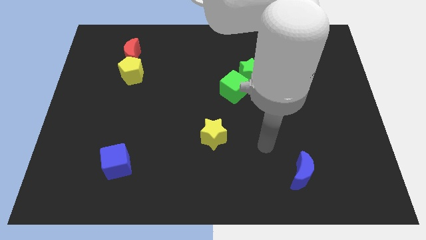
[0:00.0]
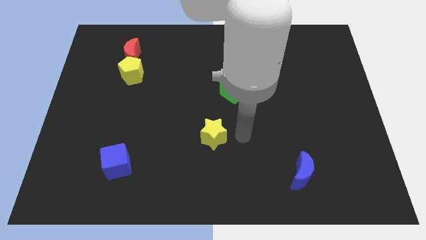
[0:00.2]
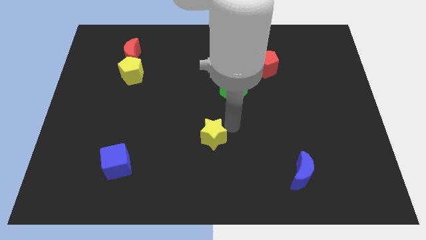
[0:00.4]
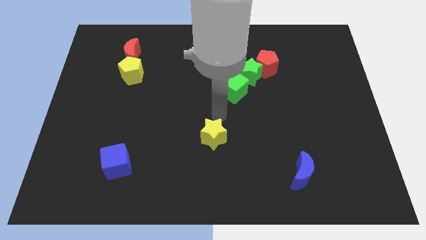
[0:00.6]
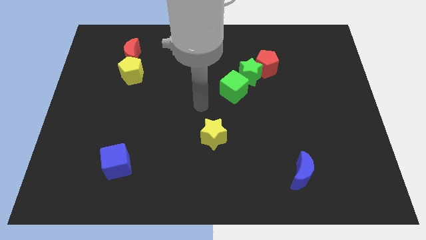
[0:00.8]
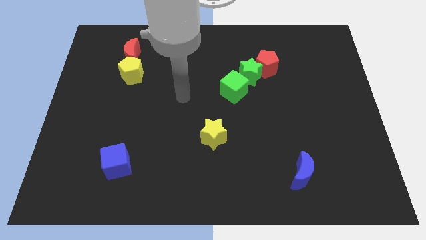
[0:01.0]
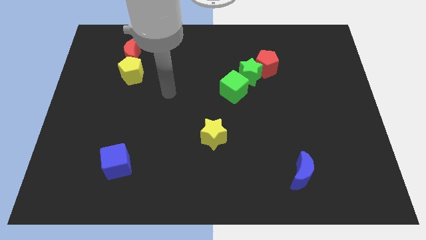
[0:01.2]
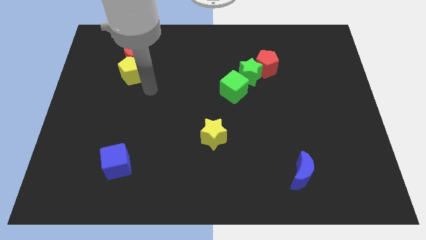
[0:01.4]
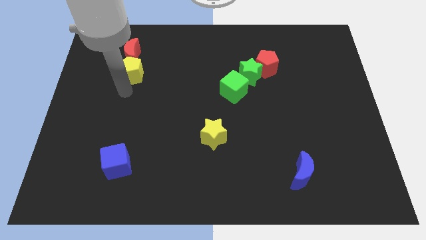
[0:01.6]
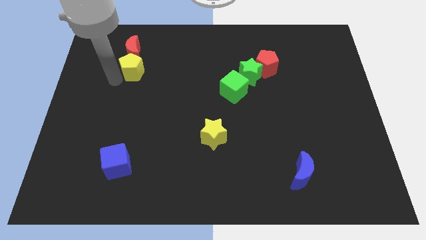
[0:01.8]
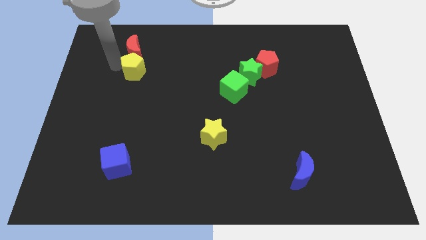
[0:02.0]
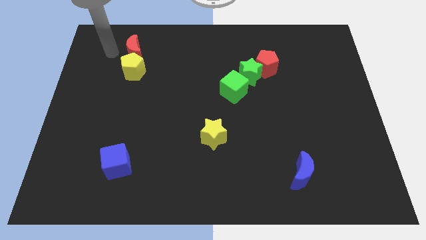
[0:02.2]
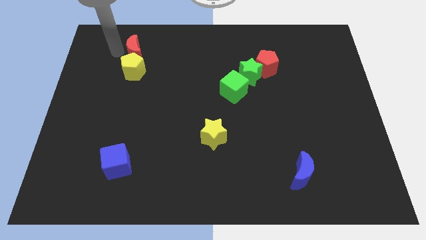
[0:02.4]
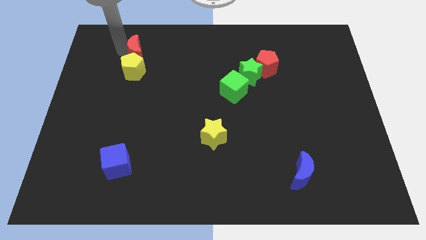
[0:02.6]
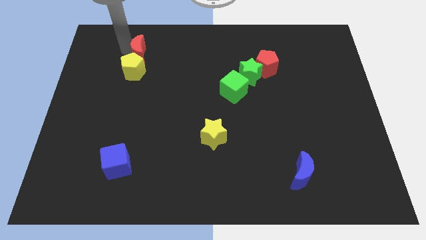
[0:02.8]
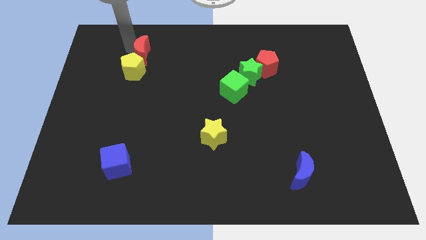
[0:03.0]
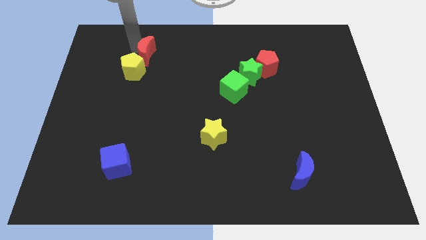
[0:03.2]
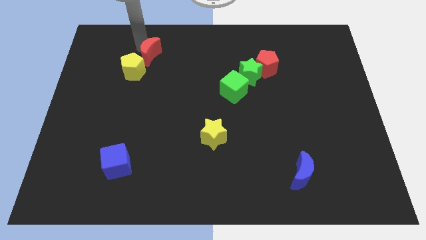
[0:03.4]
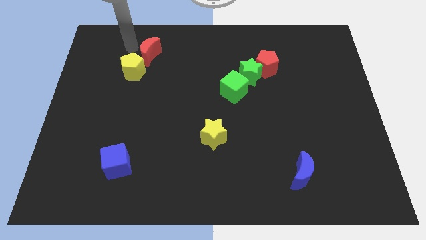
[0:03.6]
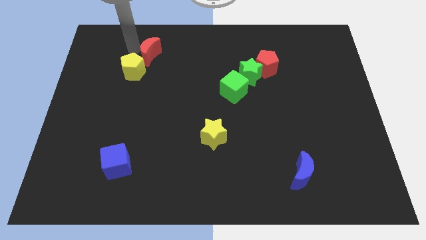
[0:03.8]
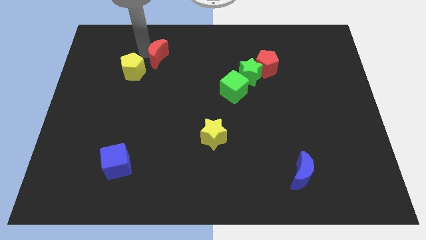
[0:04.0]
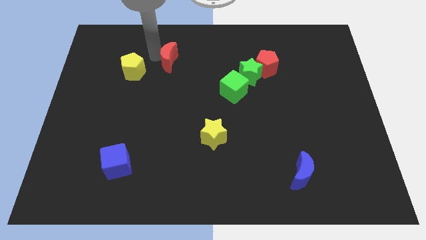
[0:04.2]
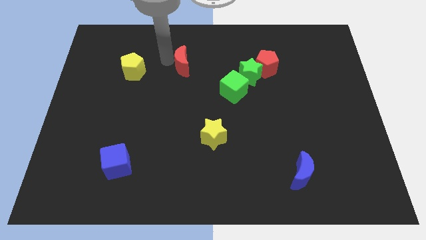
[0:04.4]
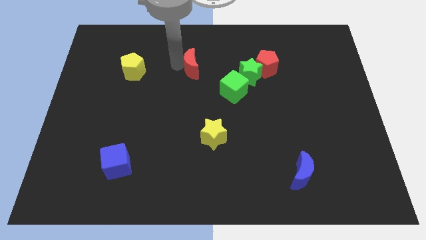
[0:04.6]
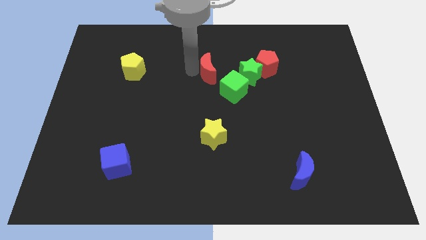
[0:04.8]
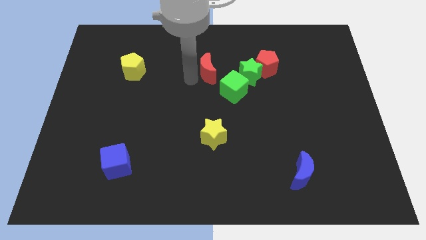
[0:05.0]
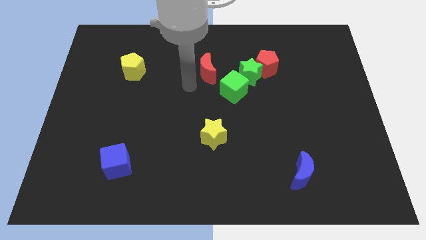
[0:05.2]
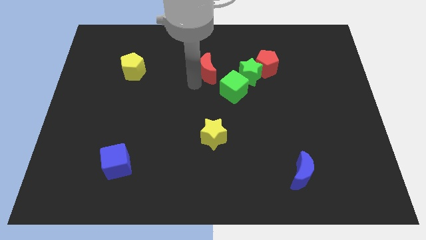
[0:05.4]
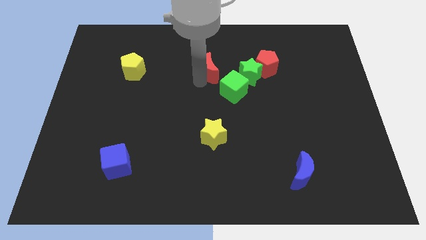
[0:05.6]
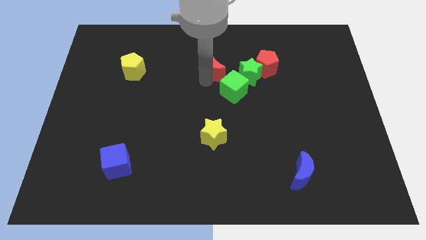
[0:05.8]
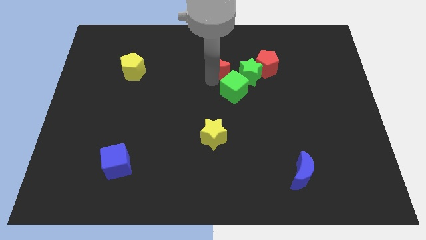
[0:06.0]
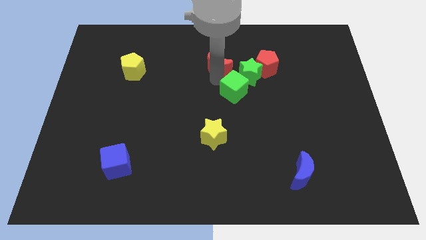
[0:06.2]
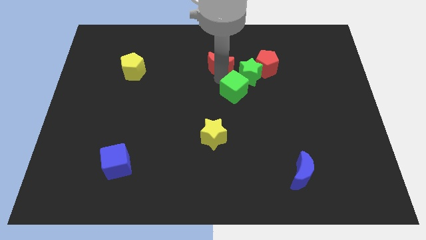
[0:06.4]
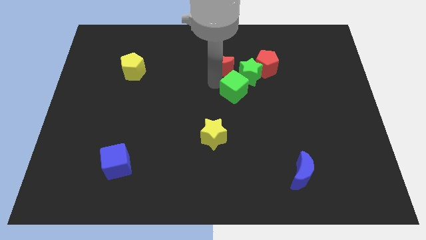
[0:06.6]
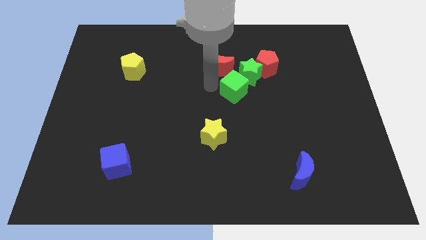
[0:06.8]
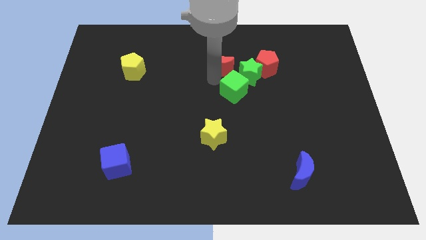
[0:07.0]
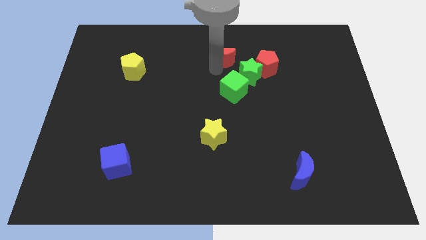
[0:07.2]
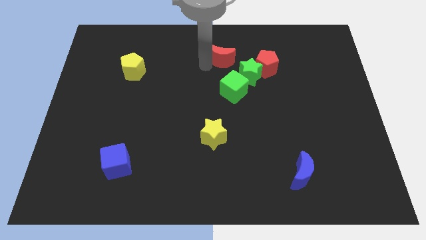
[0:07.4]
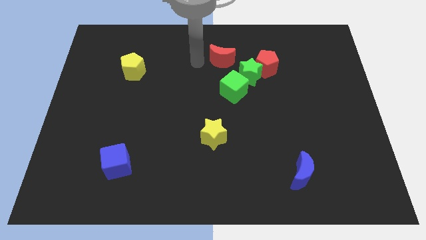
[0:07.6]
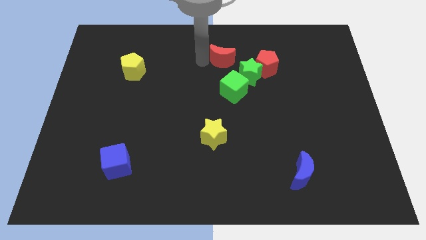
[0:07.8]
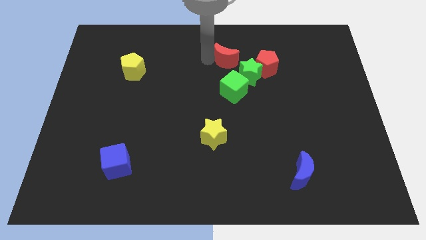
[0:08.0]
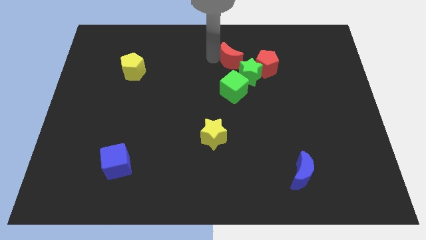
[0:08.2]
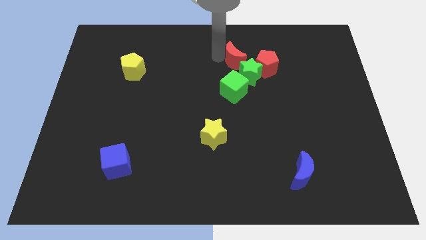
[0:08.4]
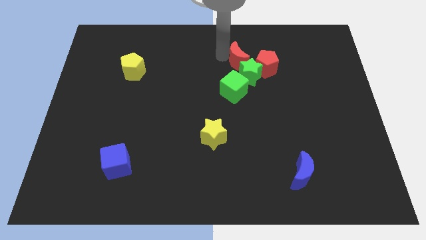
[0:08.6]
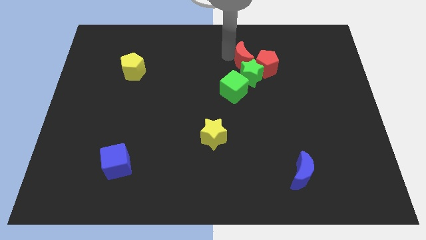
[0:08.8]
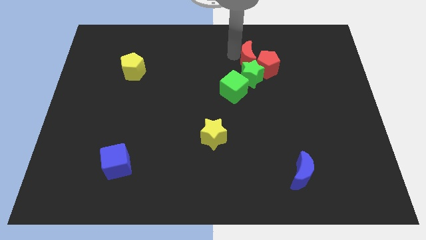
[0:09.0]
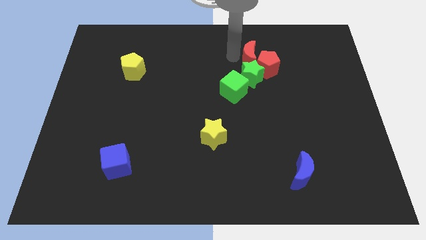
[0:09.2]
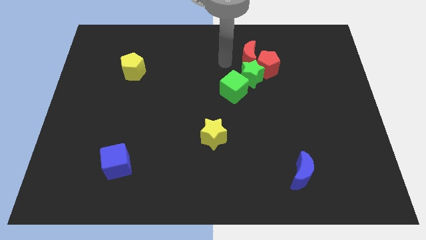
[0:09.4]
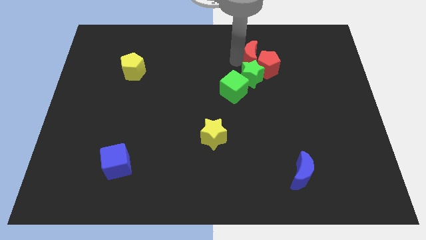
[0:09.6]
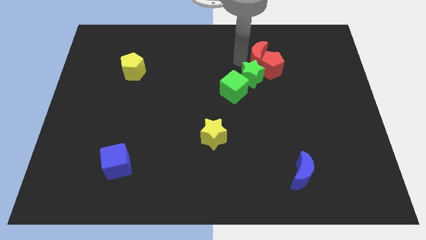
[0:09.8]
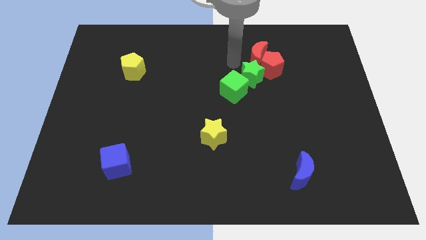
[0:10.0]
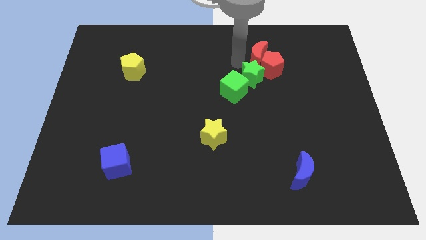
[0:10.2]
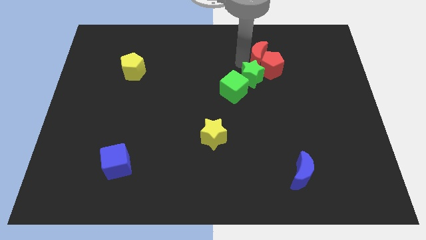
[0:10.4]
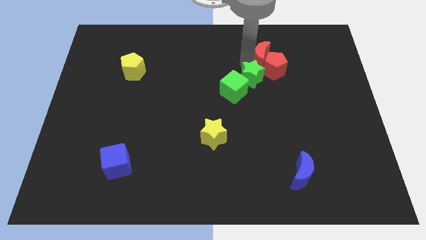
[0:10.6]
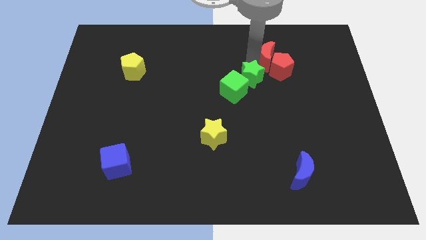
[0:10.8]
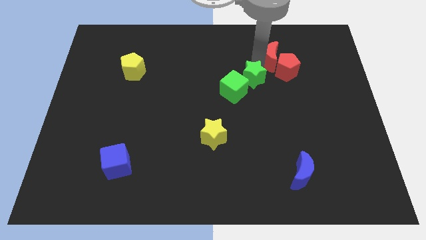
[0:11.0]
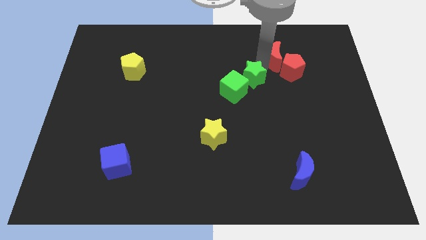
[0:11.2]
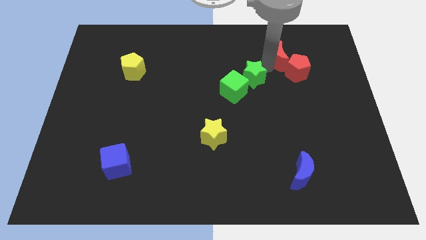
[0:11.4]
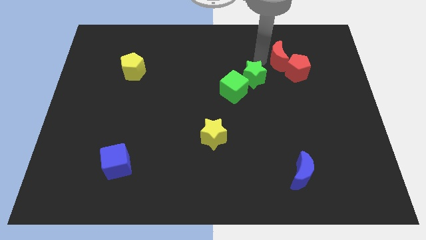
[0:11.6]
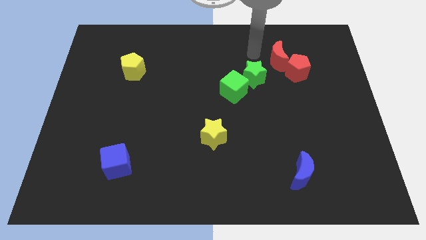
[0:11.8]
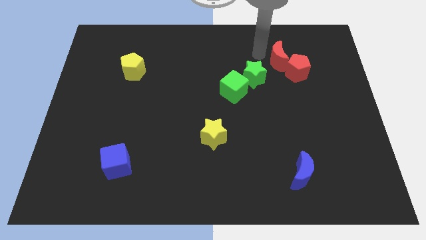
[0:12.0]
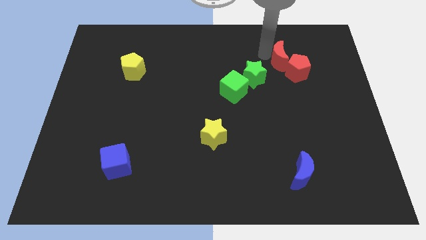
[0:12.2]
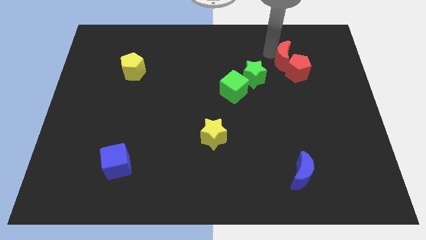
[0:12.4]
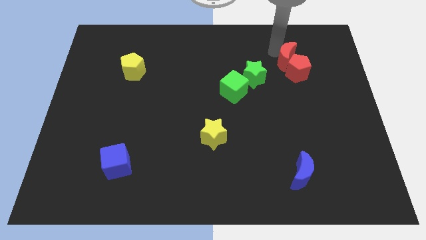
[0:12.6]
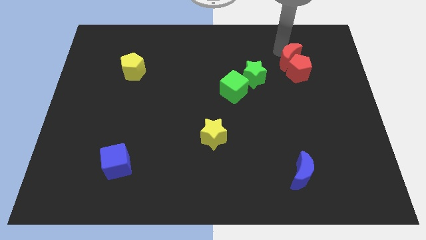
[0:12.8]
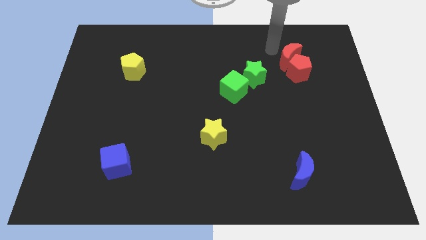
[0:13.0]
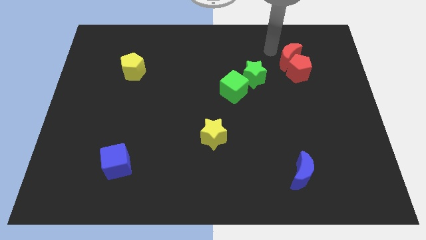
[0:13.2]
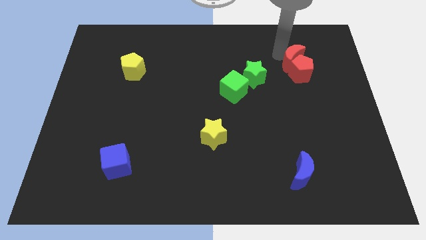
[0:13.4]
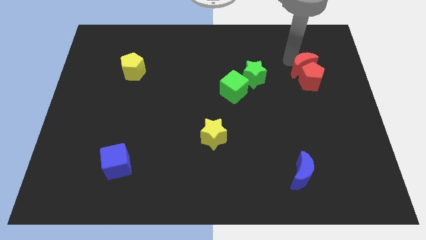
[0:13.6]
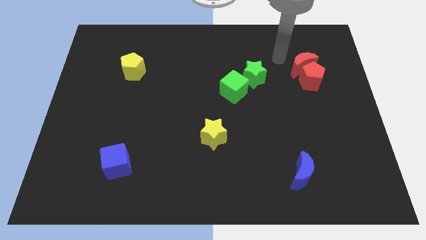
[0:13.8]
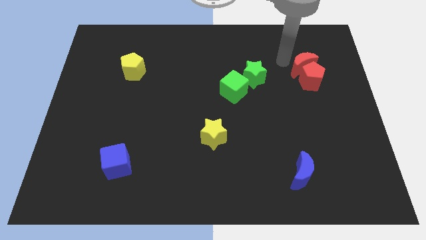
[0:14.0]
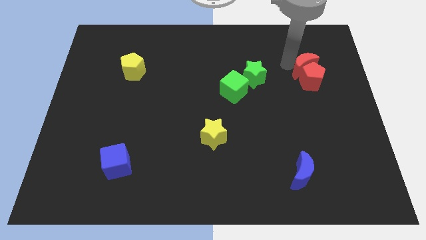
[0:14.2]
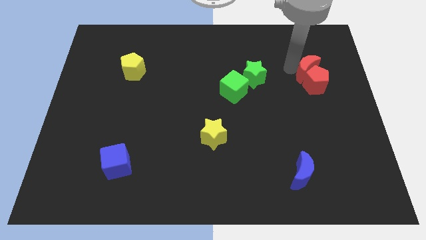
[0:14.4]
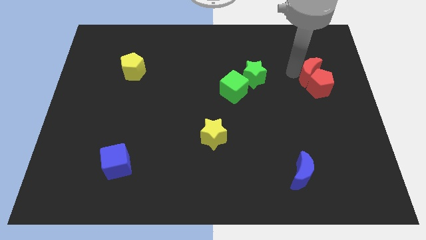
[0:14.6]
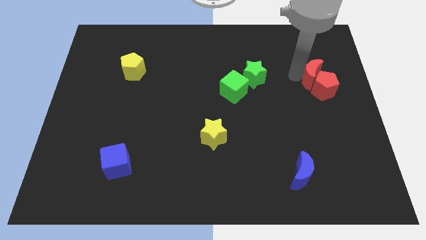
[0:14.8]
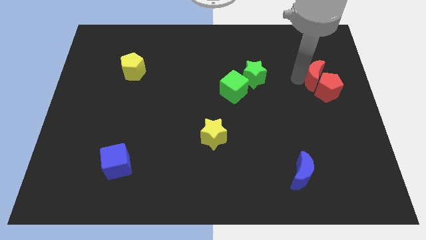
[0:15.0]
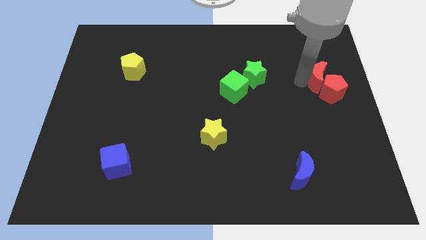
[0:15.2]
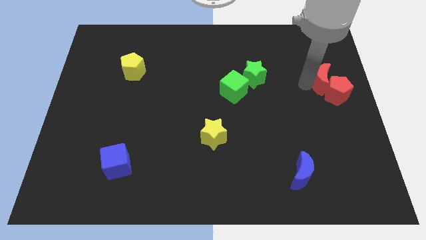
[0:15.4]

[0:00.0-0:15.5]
push the red moon to the center right
